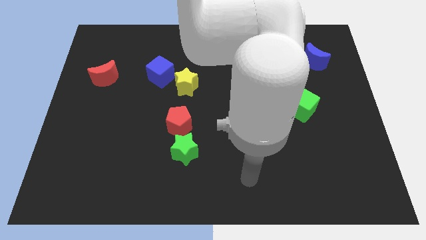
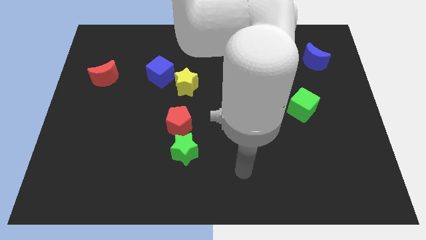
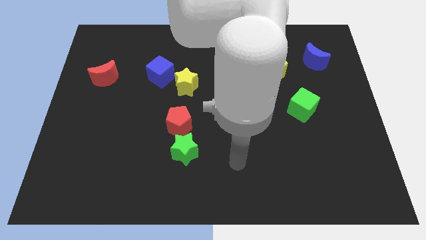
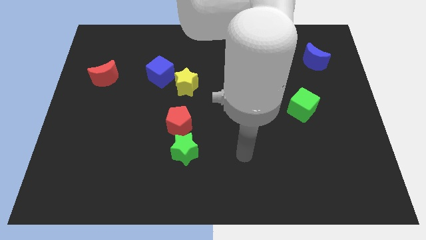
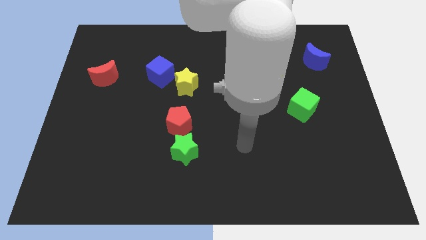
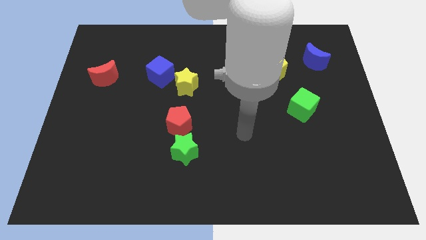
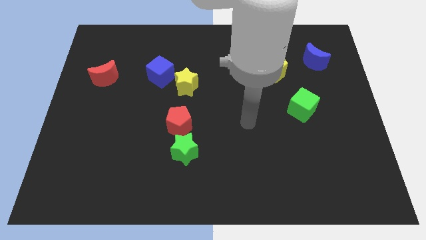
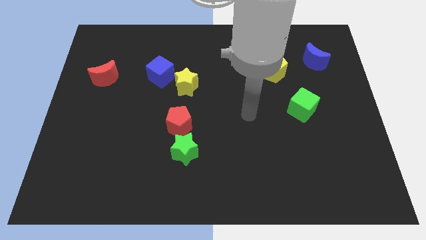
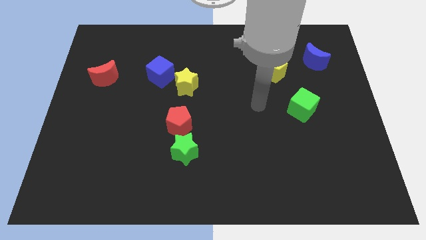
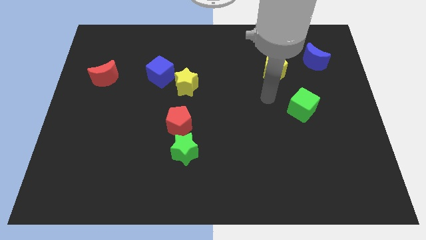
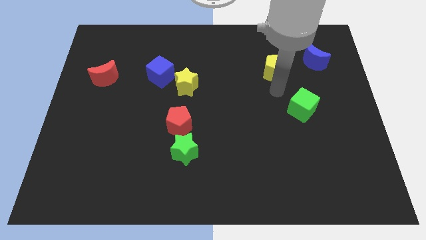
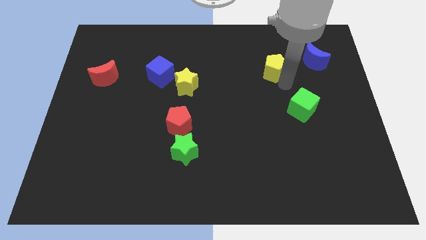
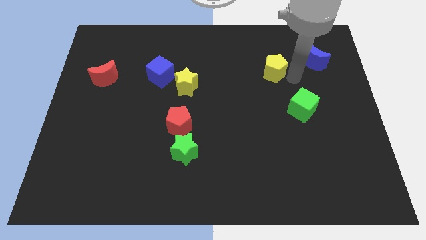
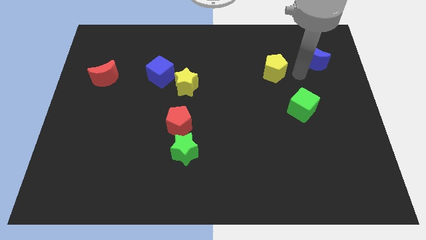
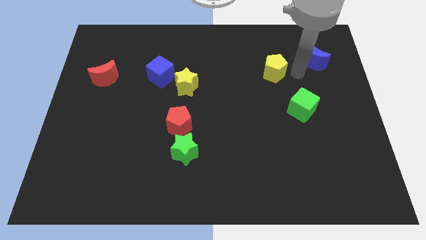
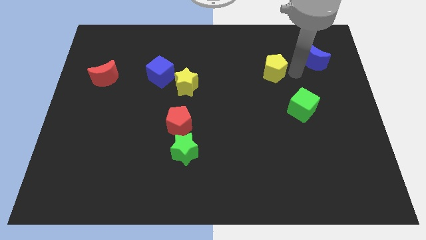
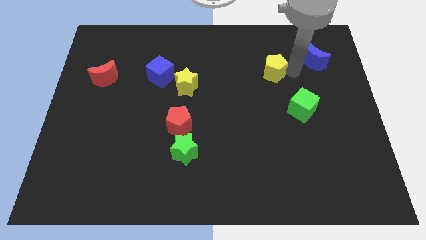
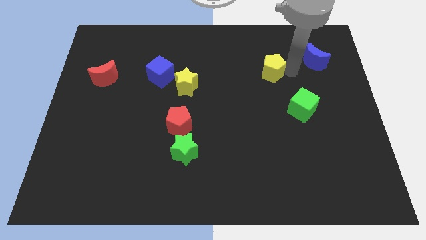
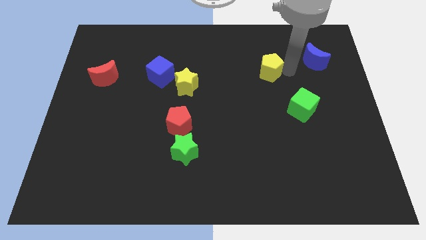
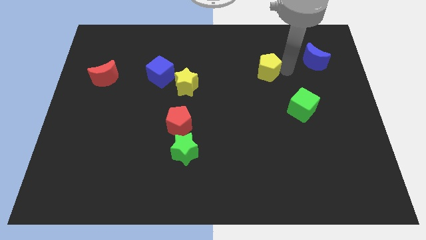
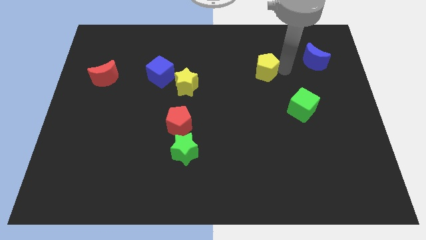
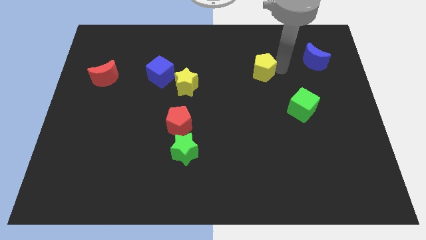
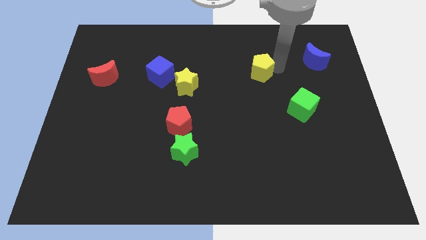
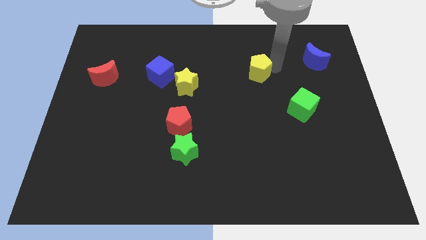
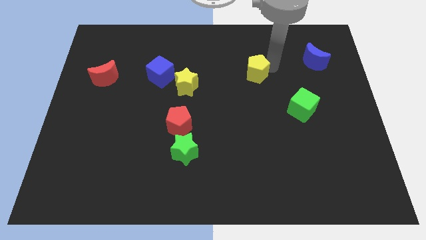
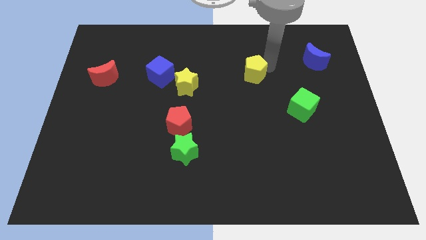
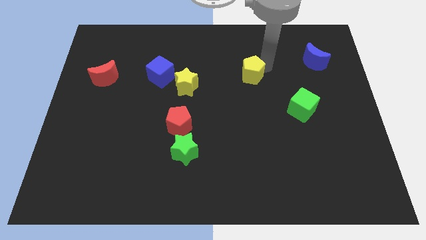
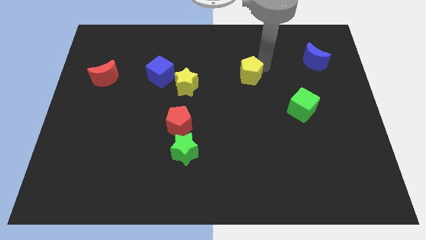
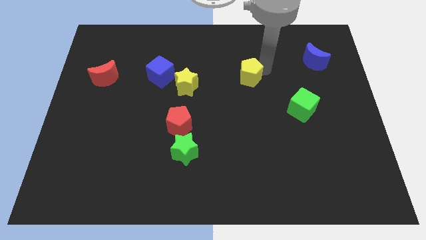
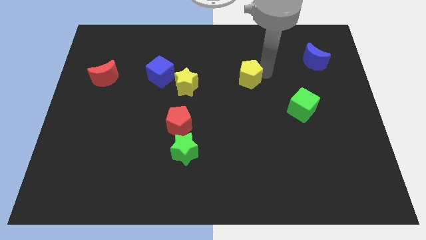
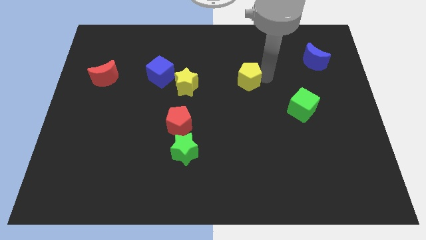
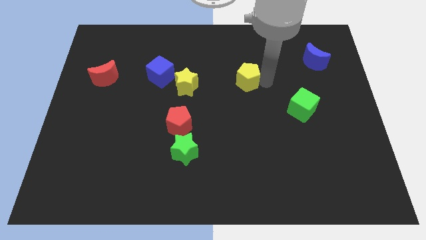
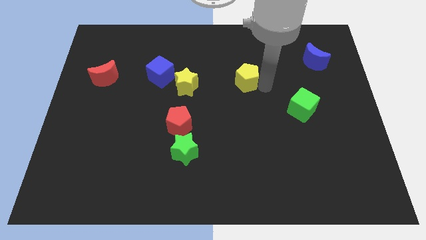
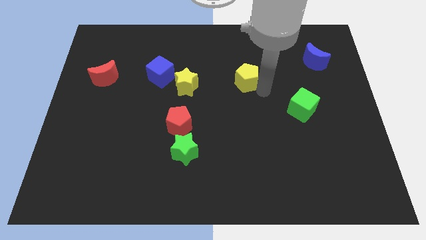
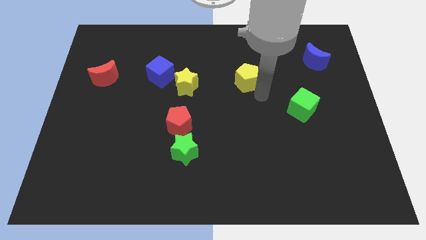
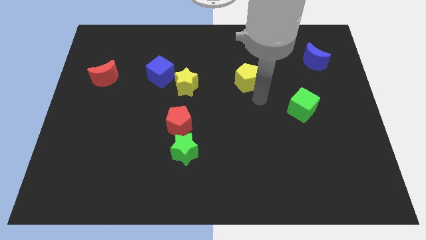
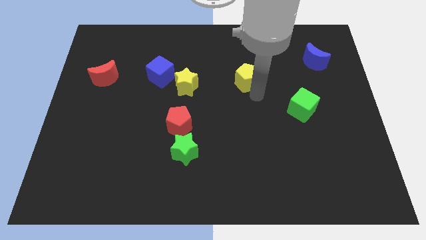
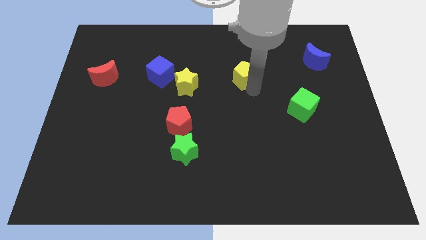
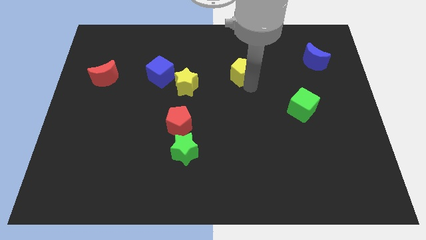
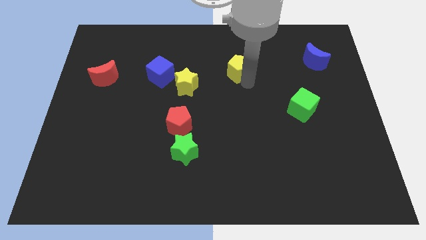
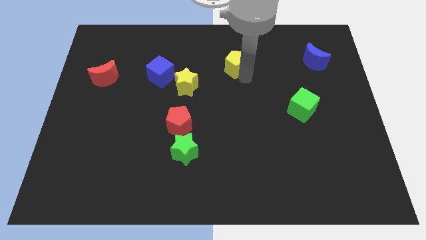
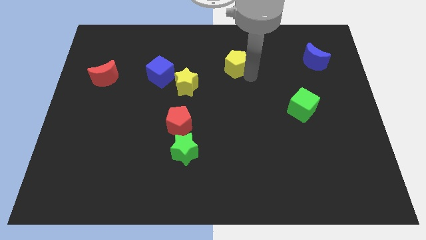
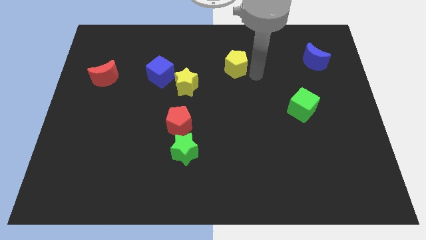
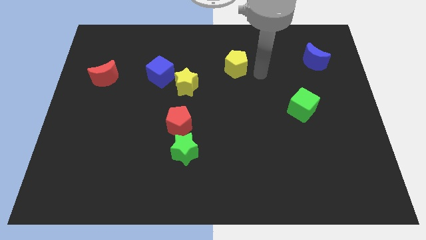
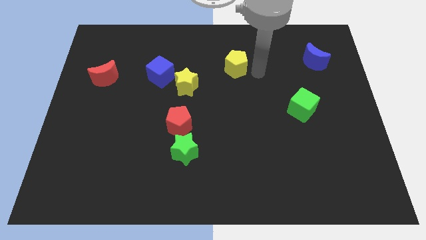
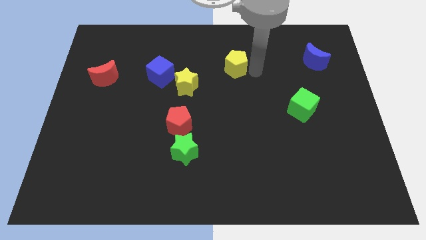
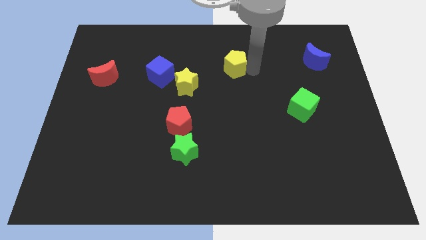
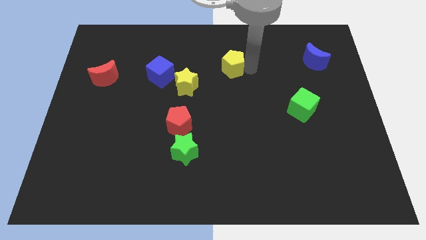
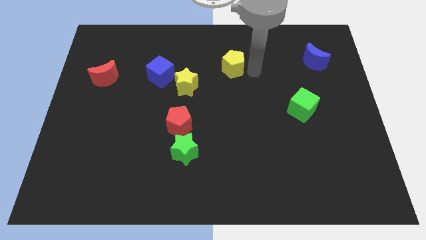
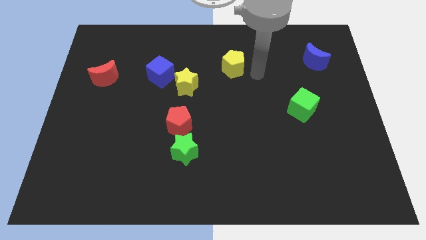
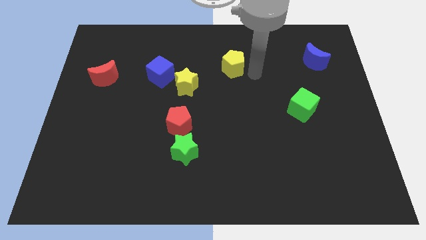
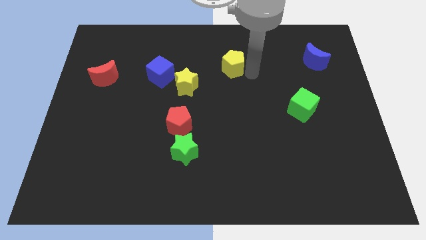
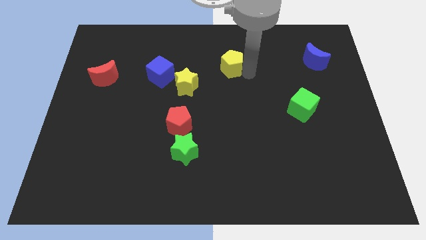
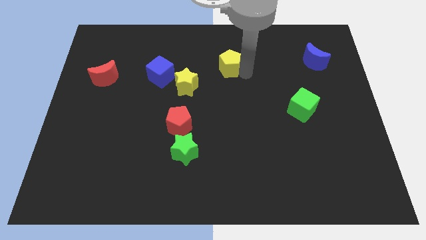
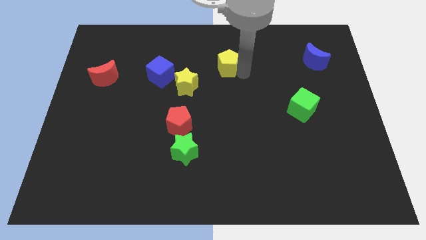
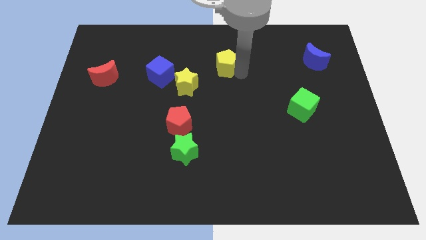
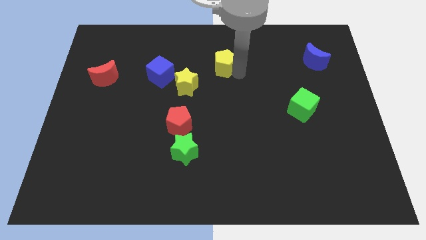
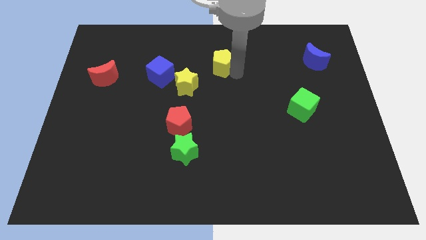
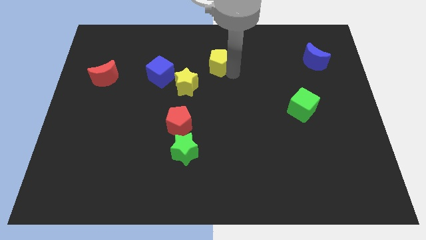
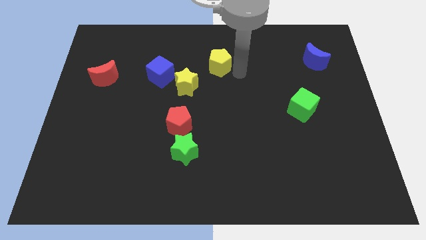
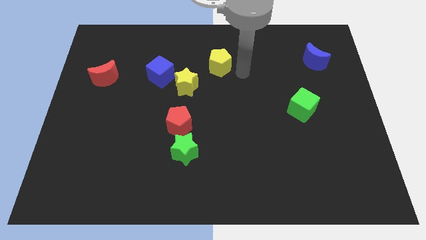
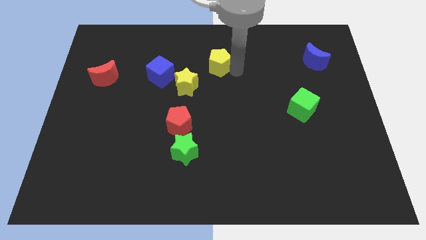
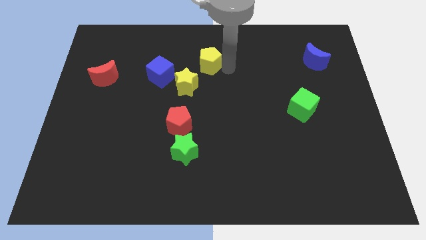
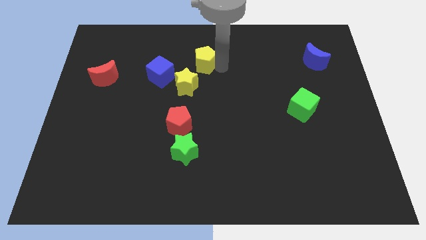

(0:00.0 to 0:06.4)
slide the yellow pentagon above the yellow star
